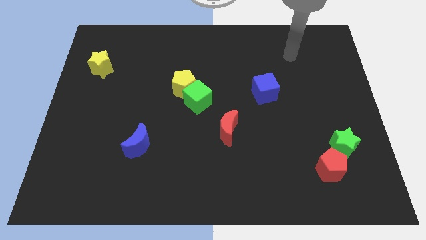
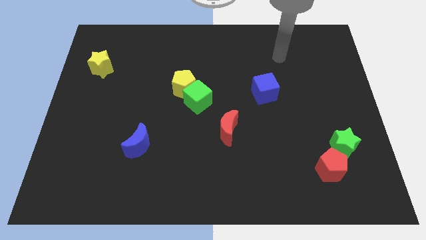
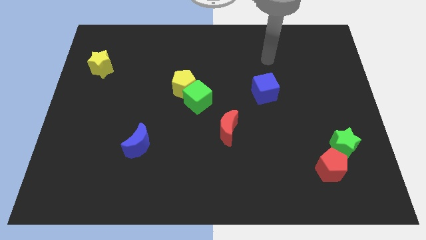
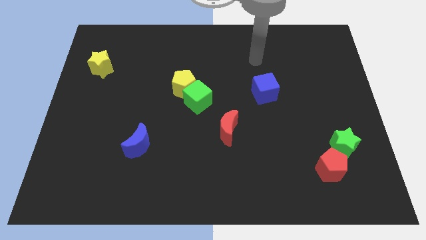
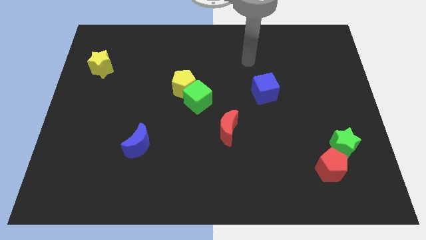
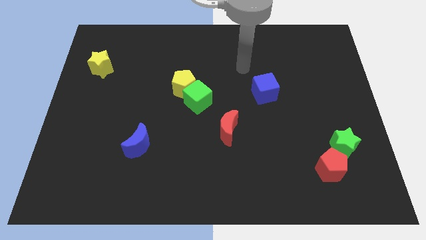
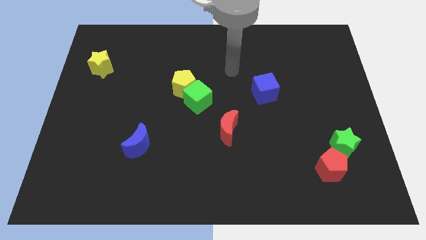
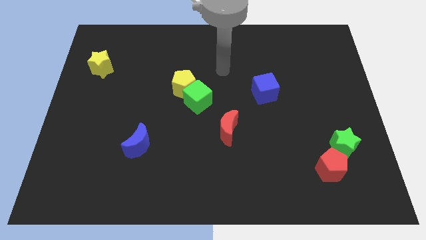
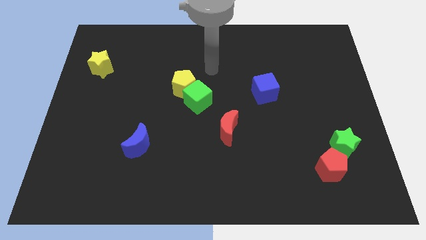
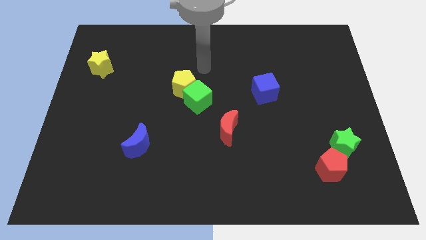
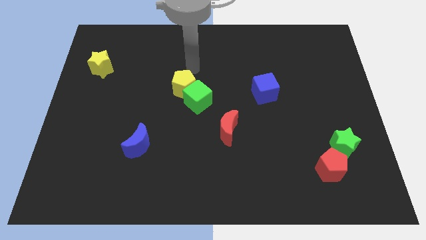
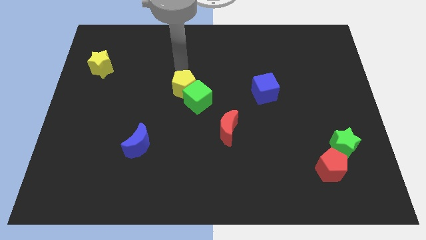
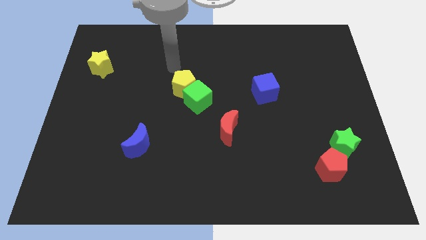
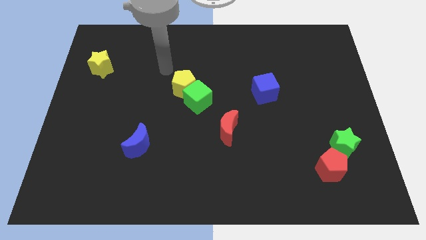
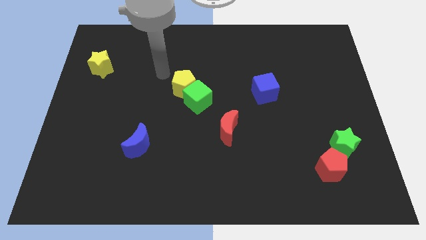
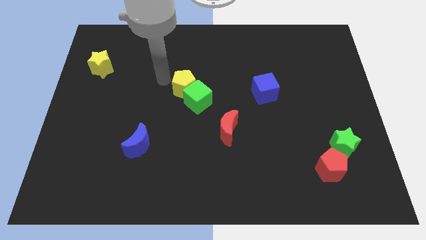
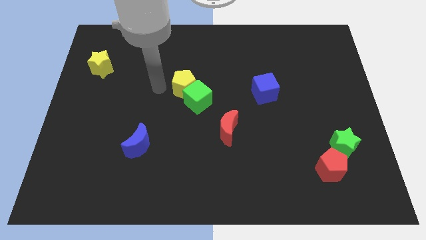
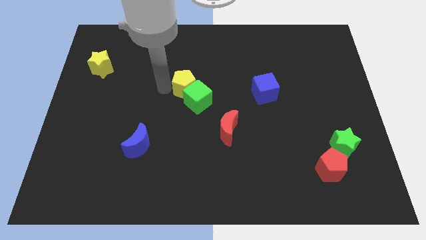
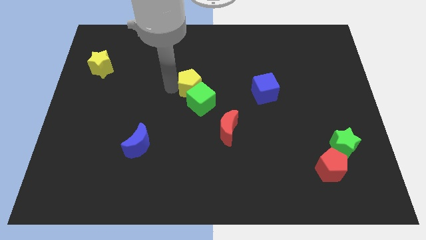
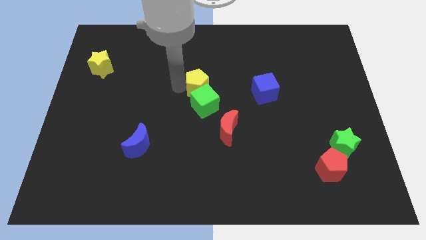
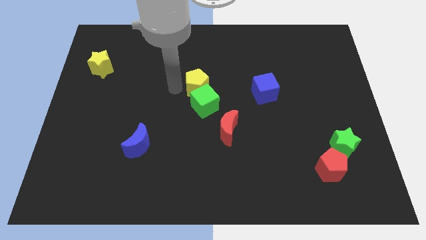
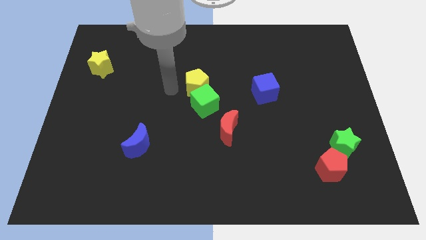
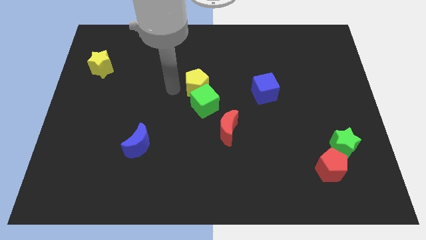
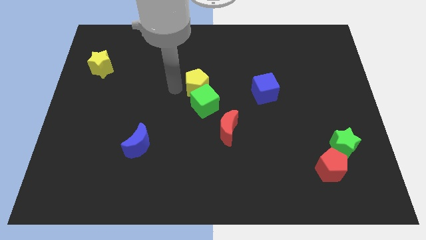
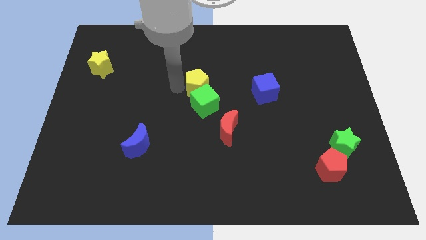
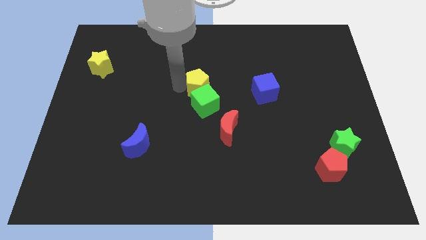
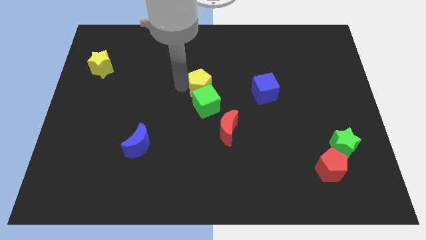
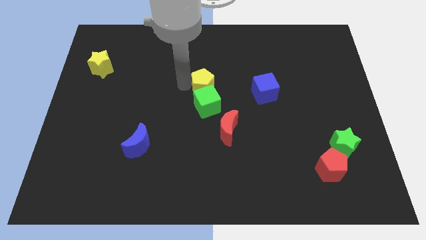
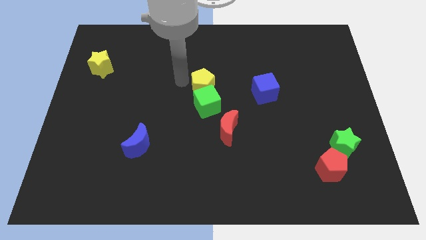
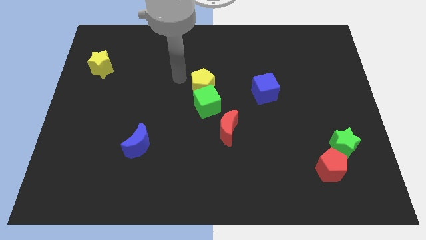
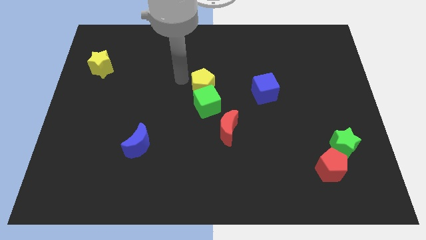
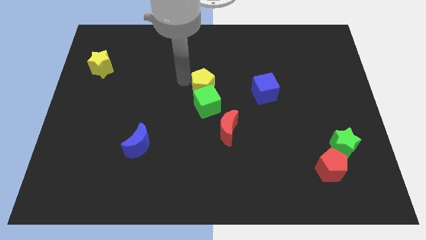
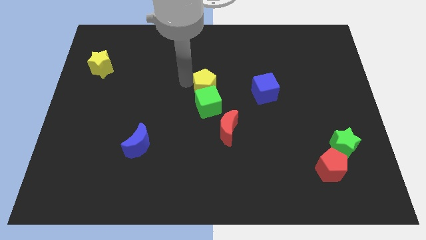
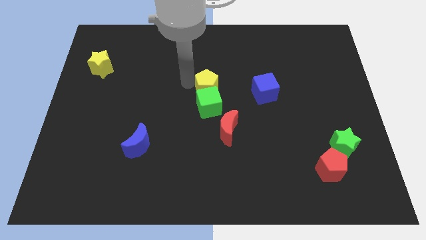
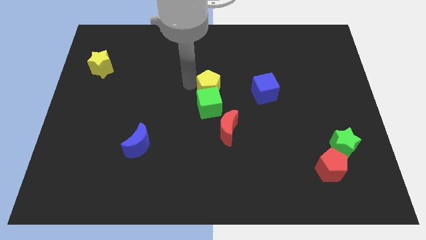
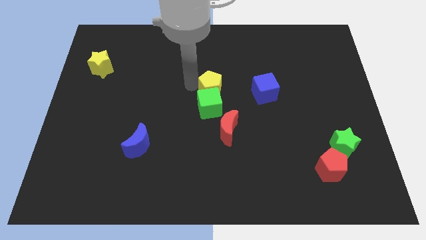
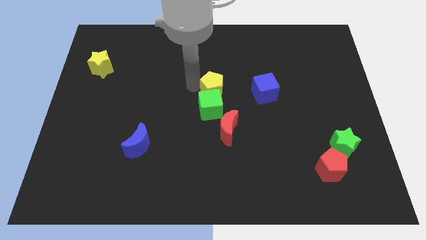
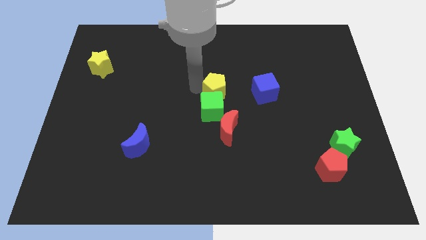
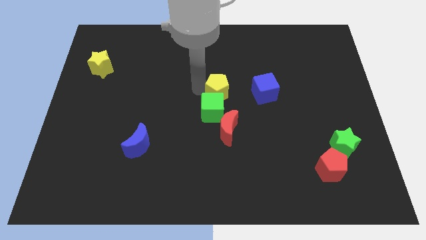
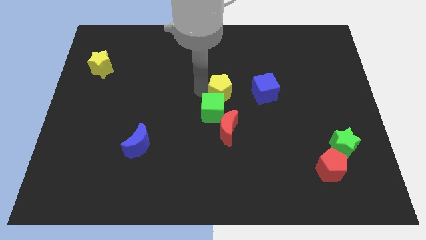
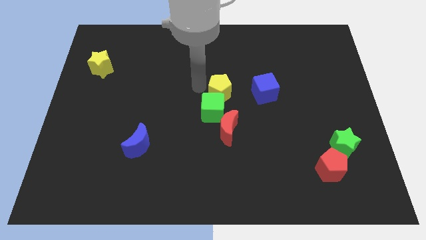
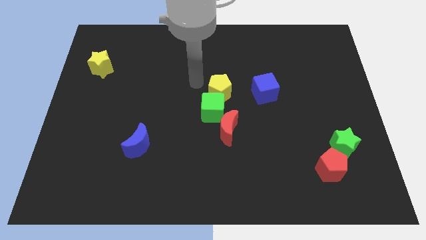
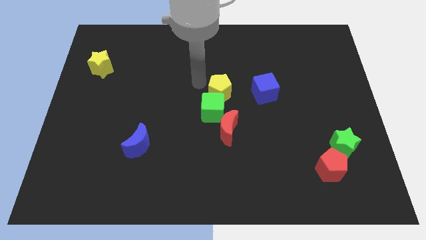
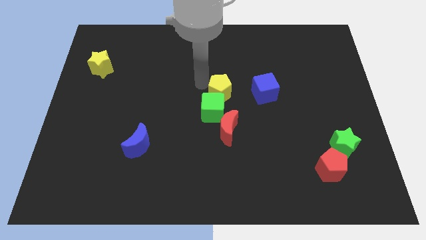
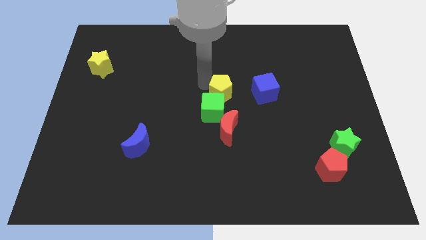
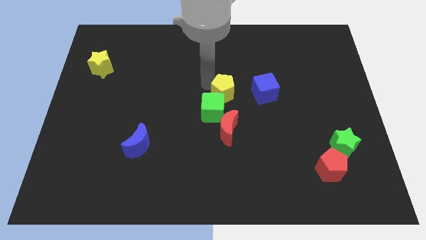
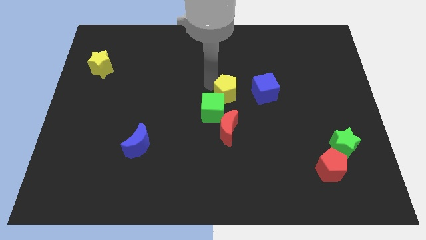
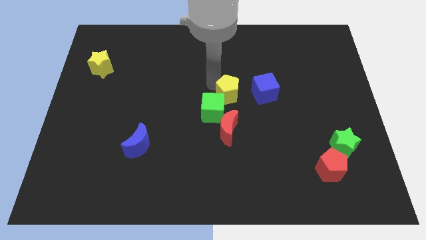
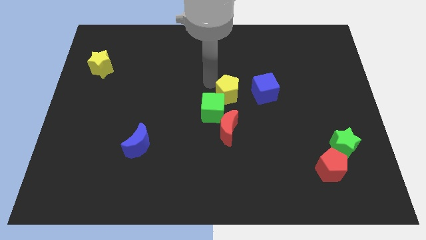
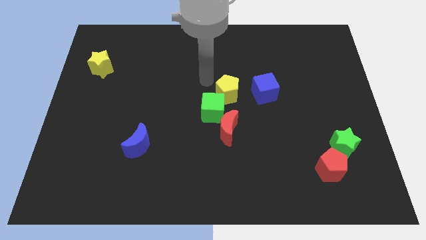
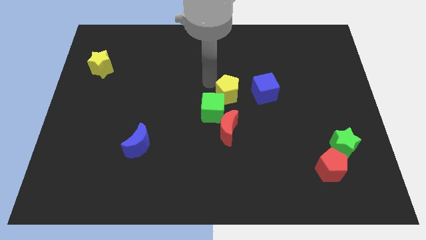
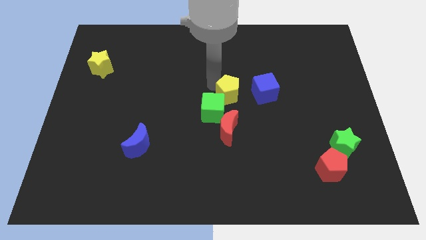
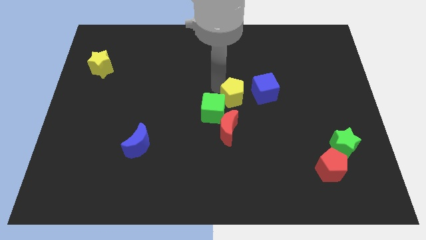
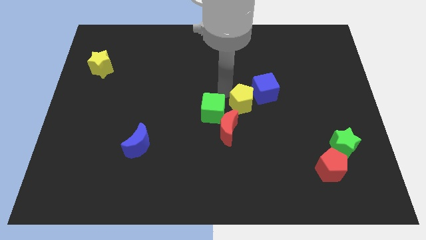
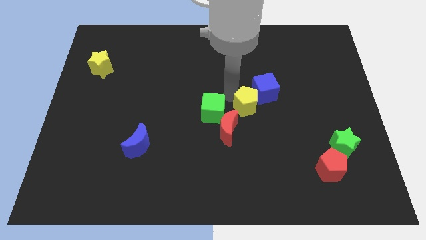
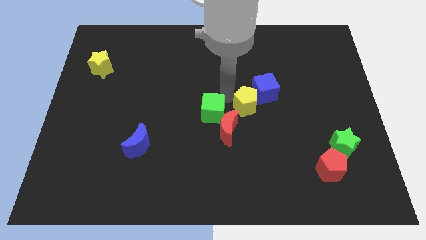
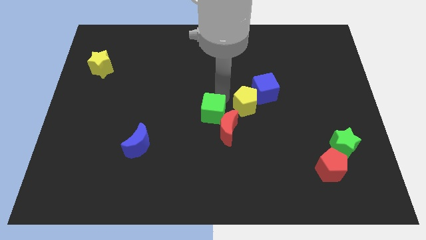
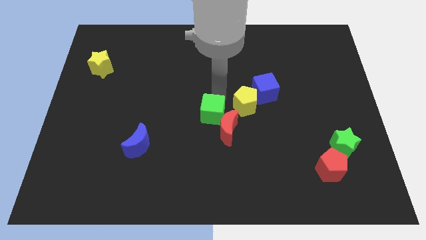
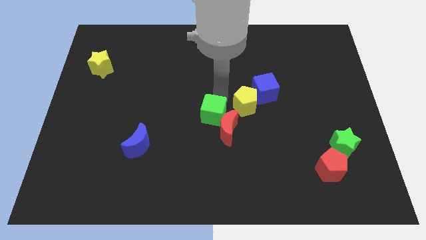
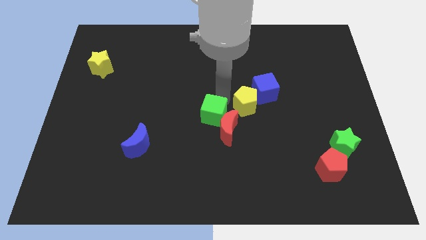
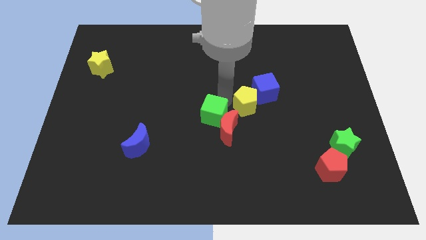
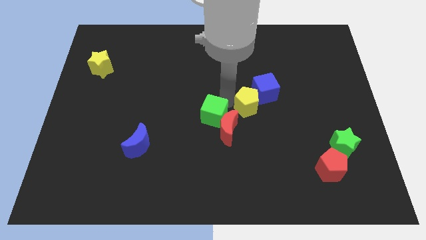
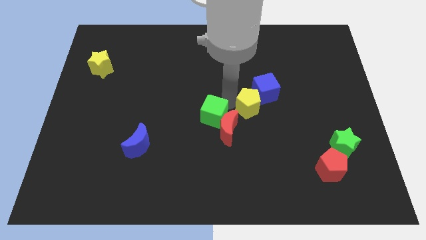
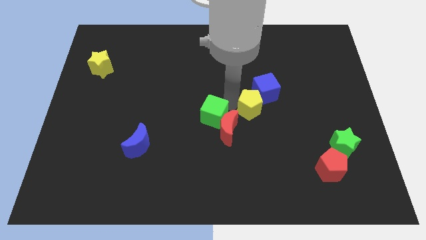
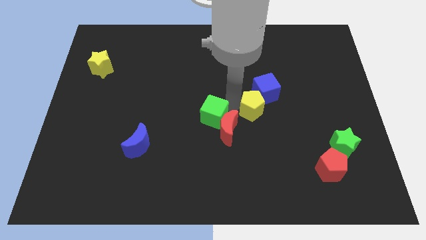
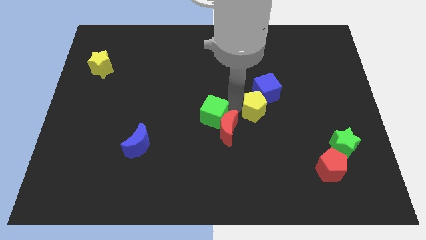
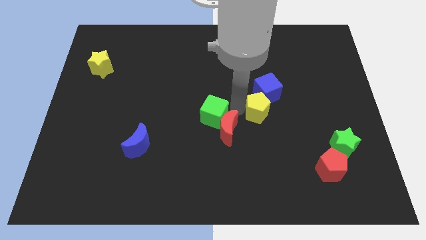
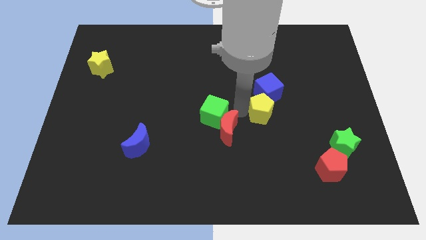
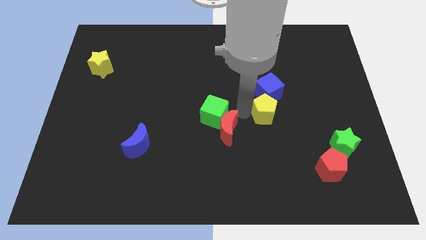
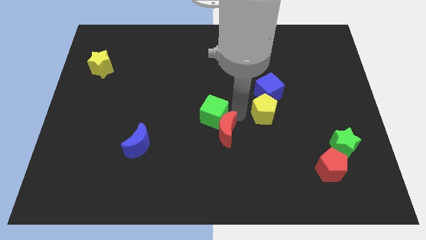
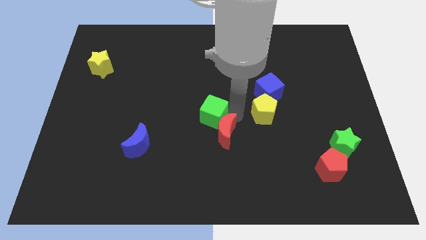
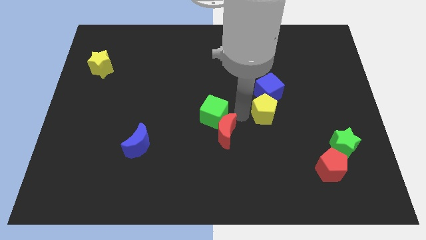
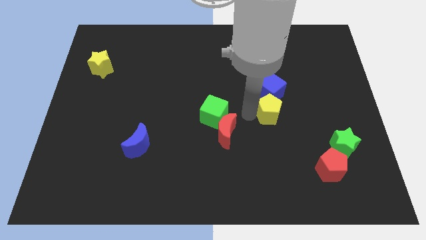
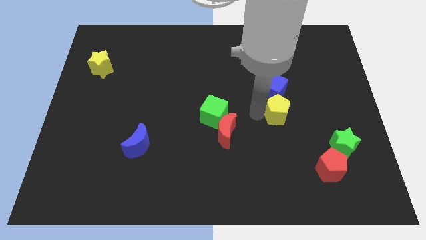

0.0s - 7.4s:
move the yellow pentagon to the bottom right of the blue cube
